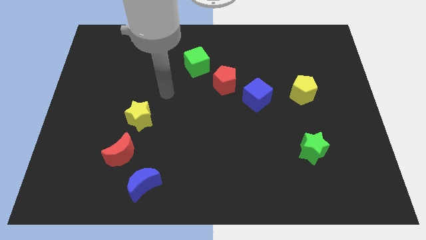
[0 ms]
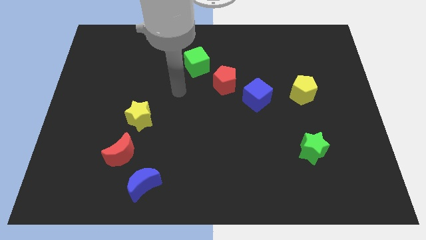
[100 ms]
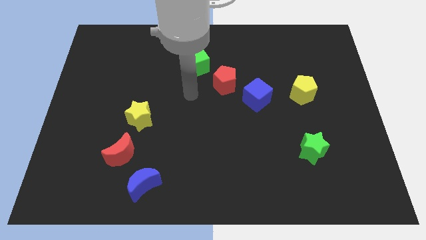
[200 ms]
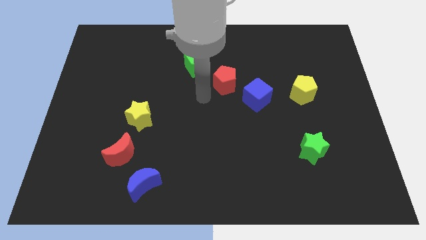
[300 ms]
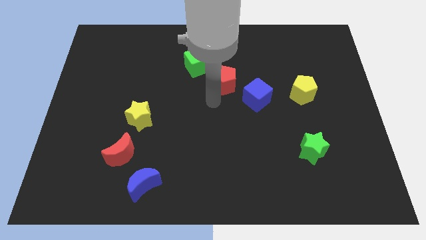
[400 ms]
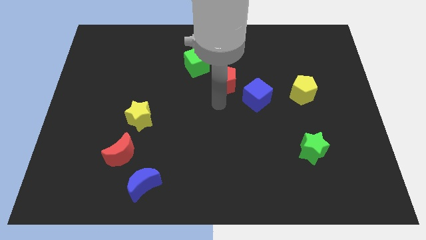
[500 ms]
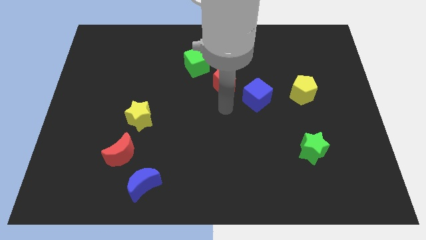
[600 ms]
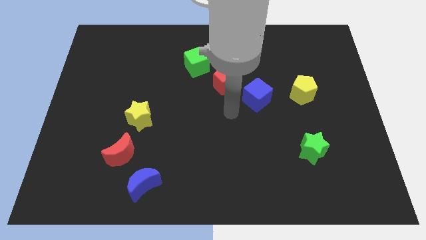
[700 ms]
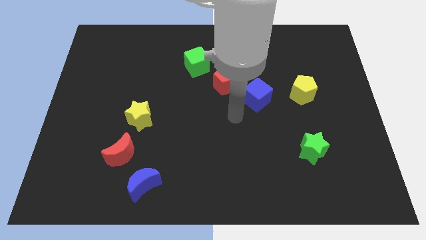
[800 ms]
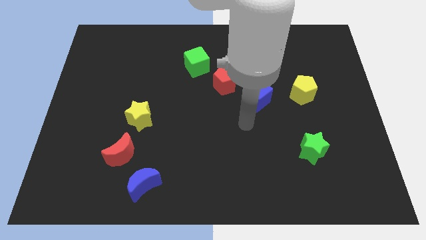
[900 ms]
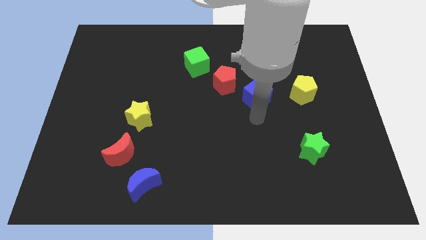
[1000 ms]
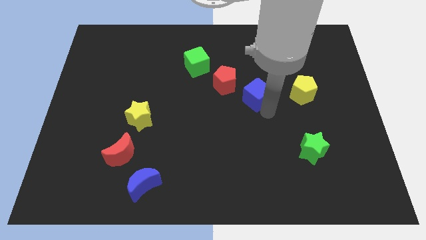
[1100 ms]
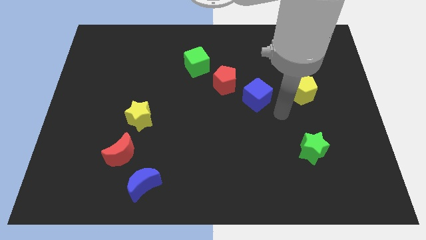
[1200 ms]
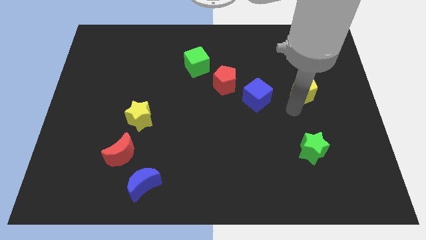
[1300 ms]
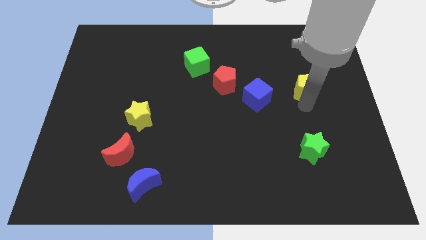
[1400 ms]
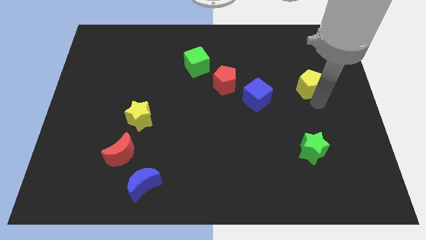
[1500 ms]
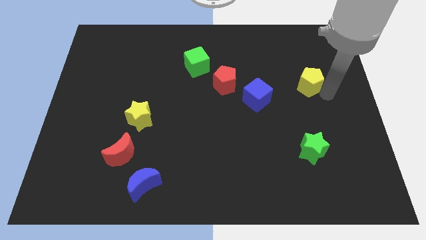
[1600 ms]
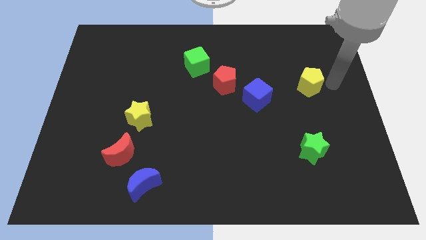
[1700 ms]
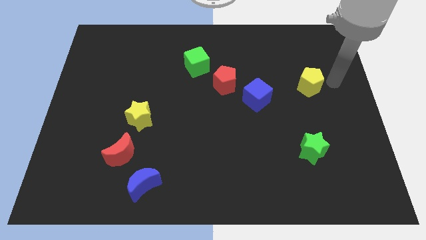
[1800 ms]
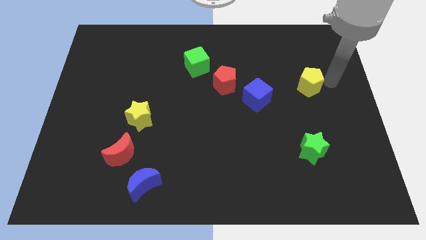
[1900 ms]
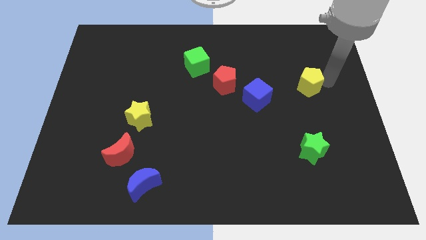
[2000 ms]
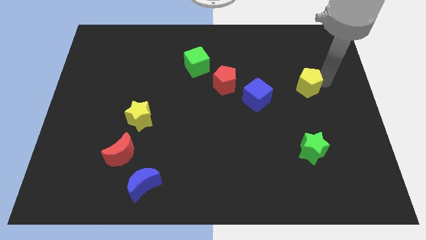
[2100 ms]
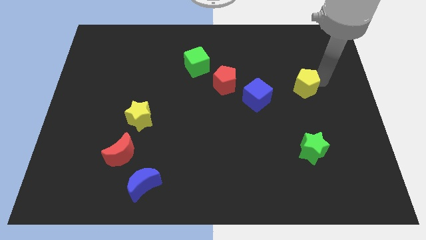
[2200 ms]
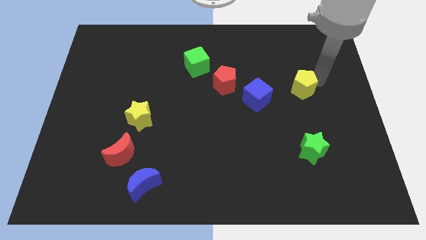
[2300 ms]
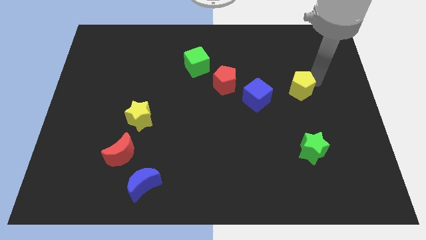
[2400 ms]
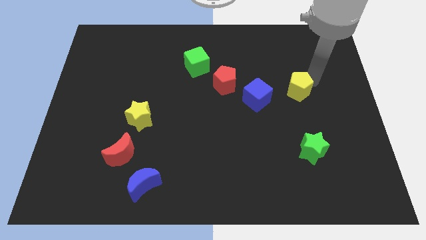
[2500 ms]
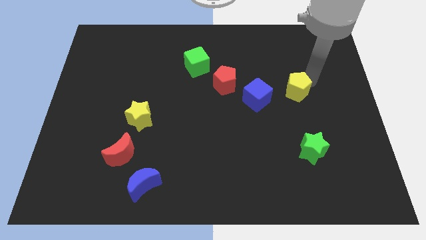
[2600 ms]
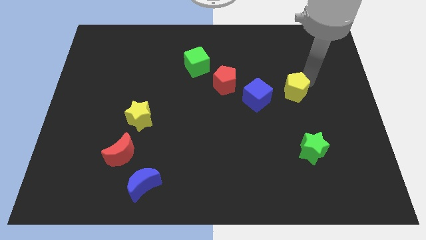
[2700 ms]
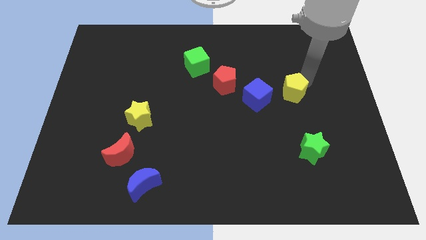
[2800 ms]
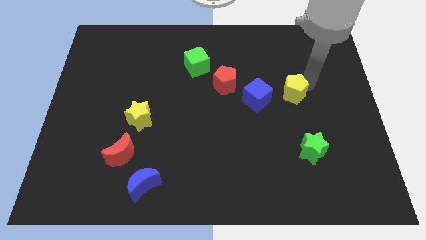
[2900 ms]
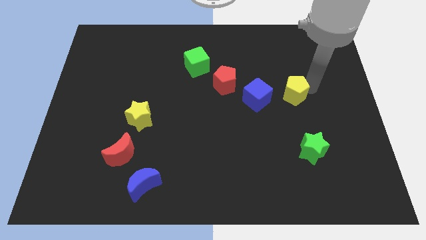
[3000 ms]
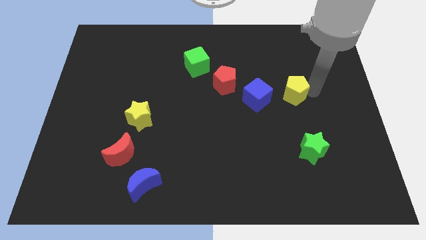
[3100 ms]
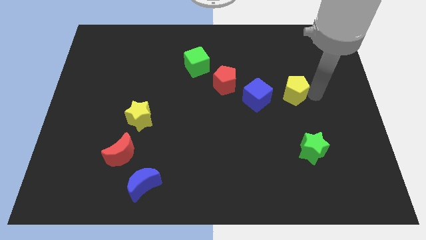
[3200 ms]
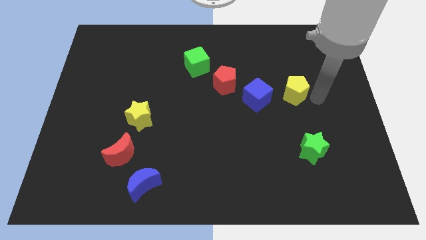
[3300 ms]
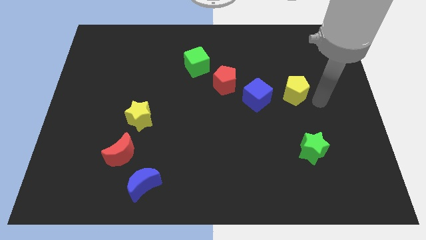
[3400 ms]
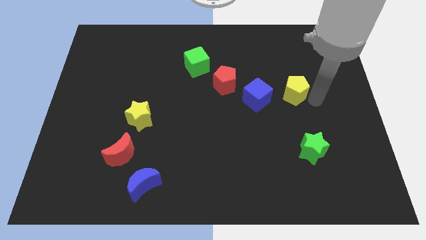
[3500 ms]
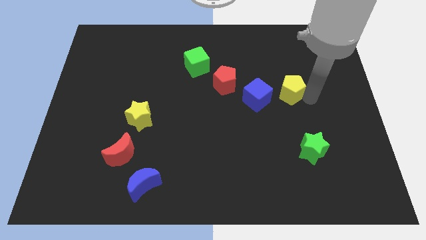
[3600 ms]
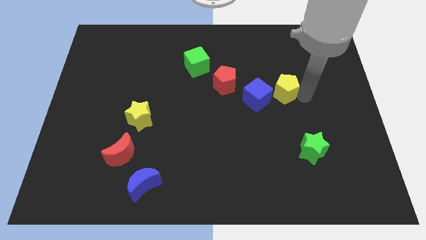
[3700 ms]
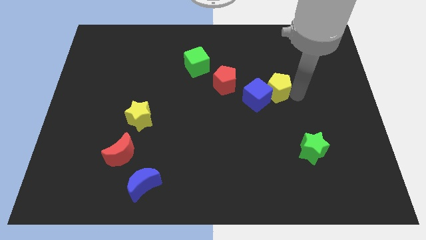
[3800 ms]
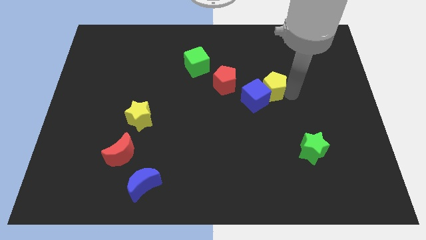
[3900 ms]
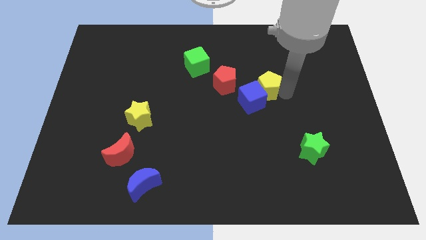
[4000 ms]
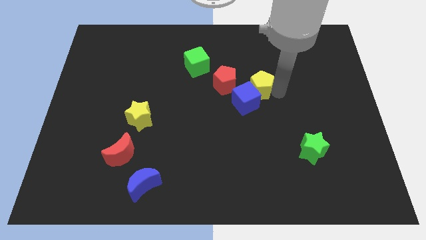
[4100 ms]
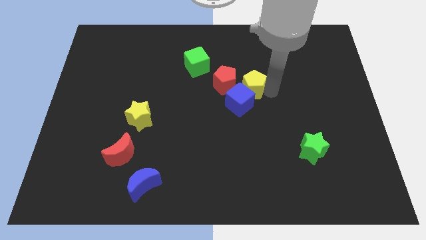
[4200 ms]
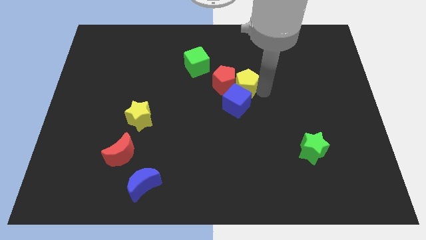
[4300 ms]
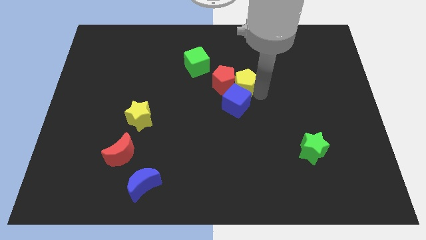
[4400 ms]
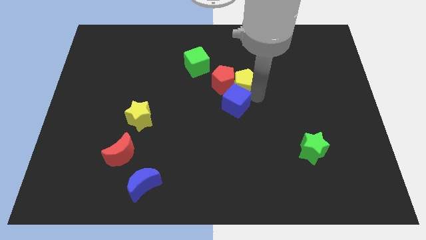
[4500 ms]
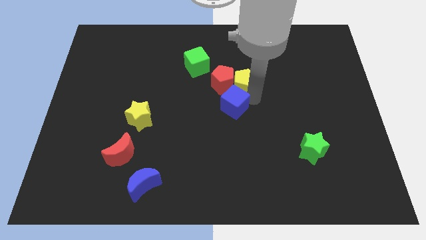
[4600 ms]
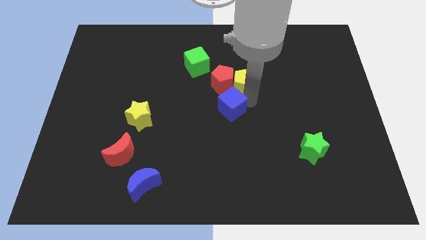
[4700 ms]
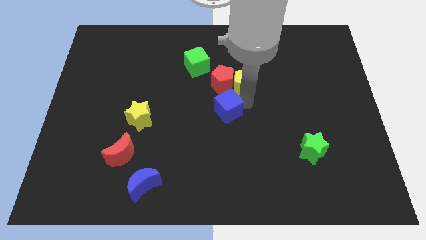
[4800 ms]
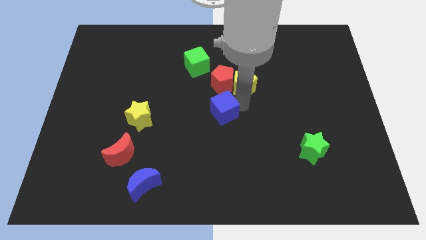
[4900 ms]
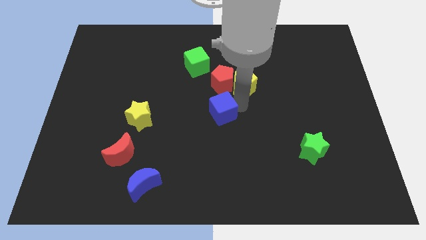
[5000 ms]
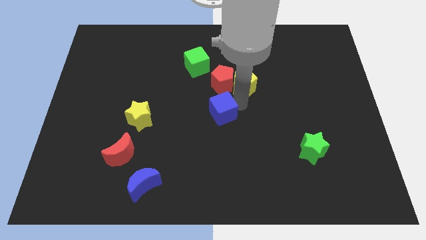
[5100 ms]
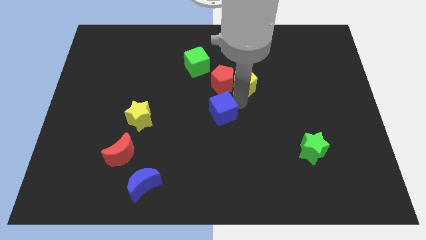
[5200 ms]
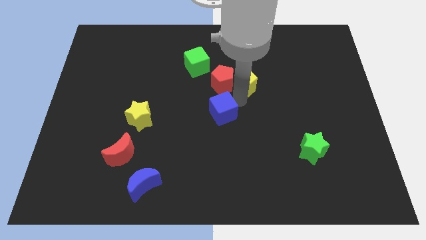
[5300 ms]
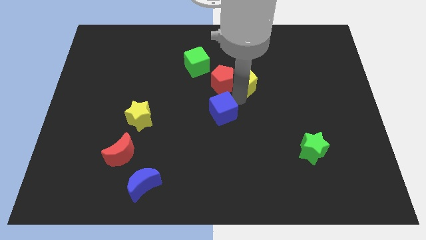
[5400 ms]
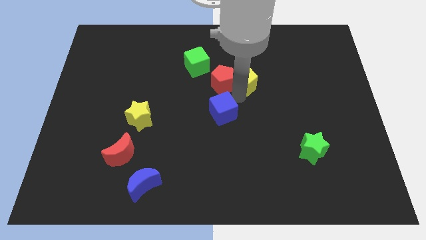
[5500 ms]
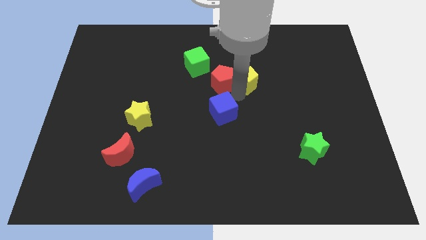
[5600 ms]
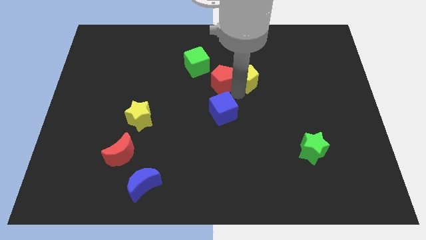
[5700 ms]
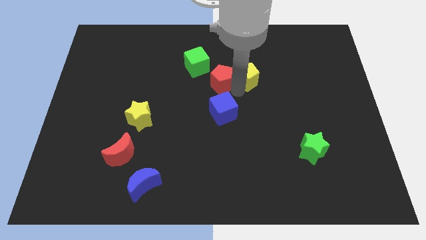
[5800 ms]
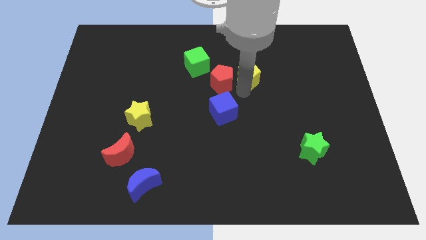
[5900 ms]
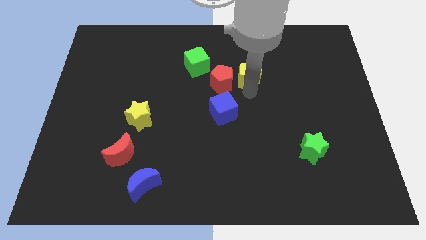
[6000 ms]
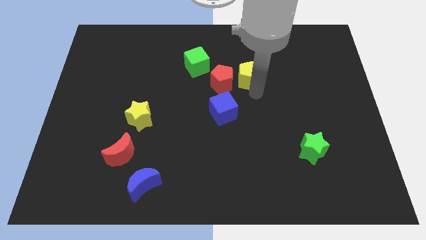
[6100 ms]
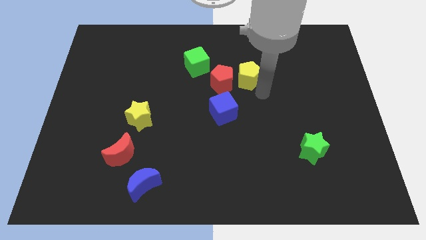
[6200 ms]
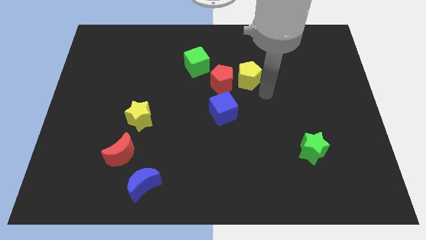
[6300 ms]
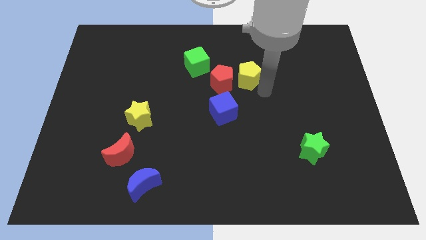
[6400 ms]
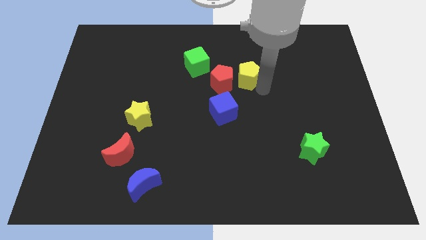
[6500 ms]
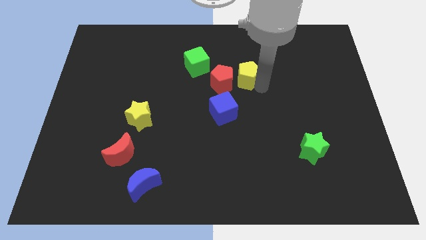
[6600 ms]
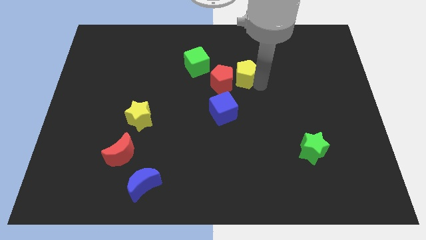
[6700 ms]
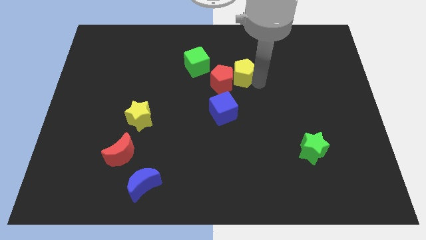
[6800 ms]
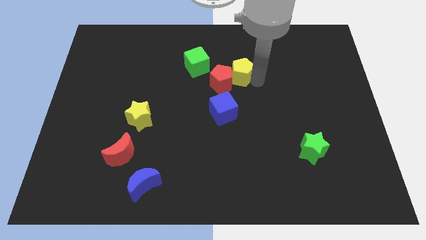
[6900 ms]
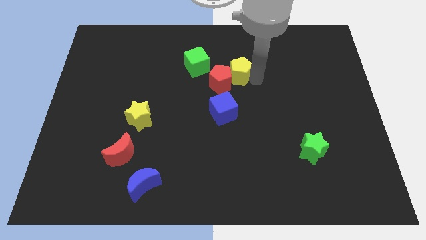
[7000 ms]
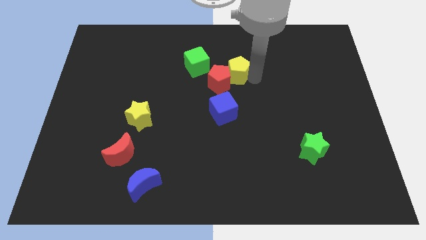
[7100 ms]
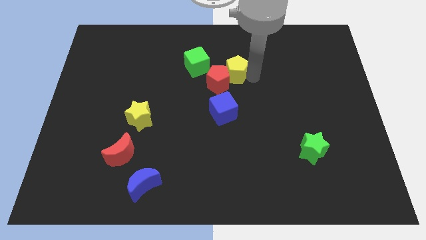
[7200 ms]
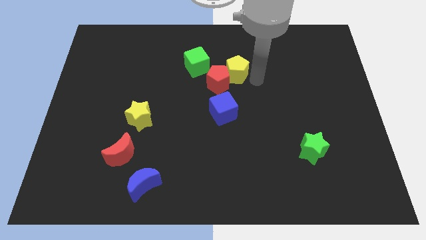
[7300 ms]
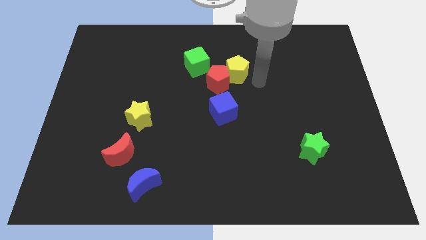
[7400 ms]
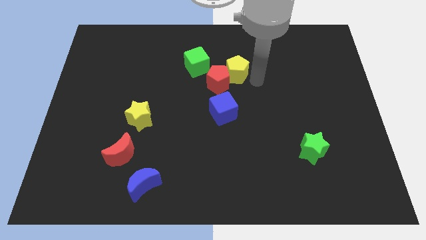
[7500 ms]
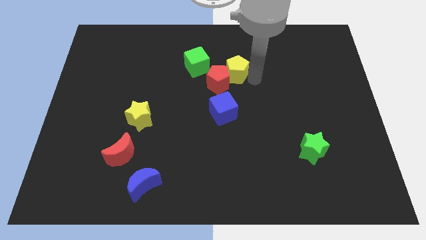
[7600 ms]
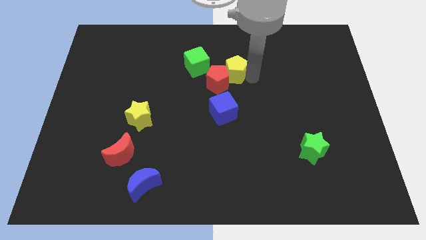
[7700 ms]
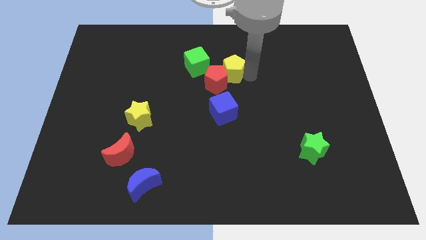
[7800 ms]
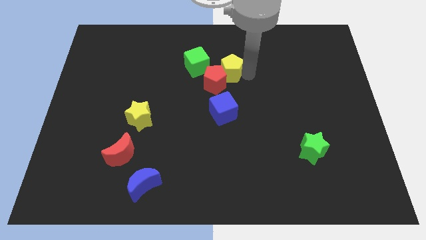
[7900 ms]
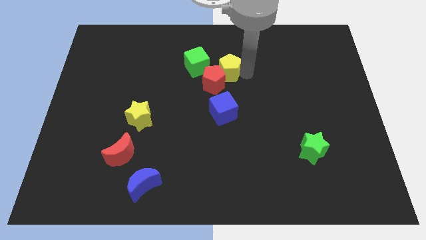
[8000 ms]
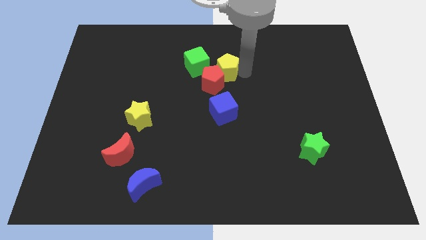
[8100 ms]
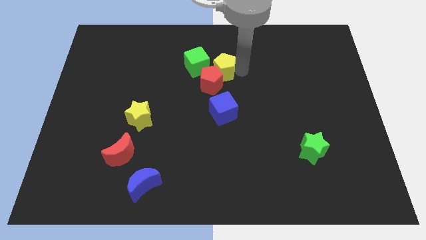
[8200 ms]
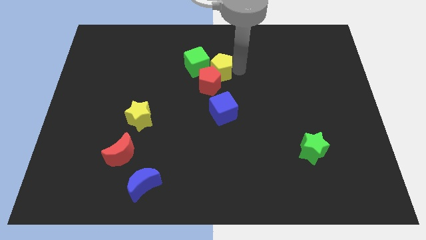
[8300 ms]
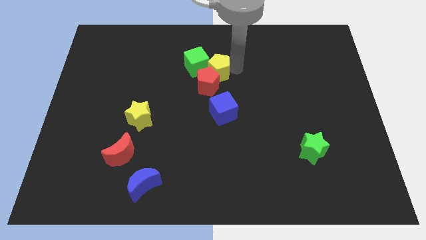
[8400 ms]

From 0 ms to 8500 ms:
put the yellow pentagon to the green cube
